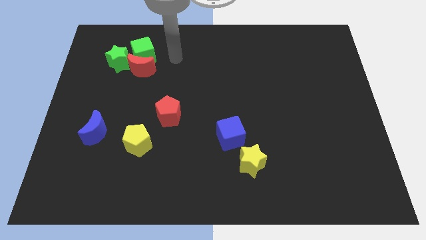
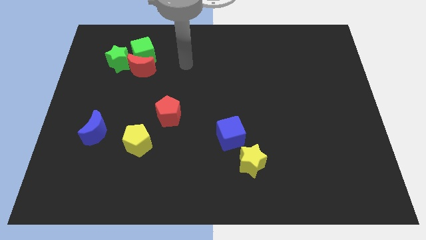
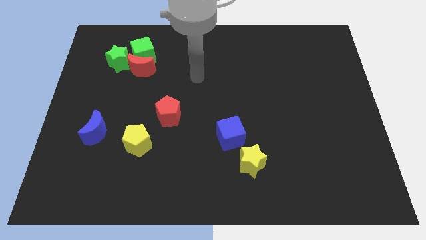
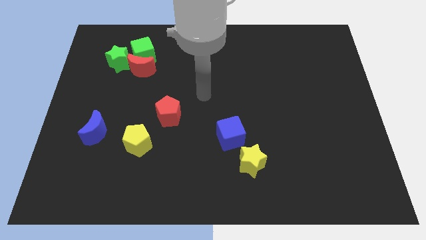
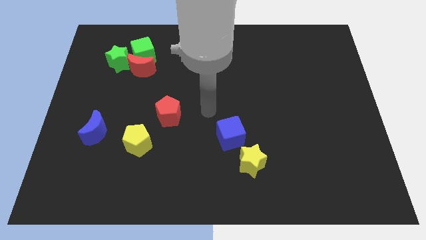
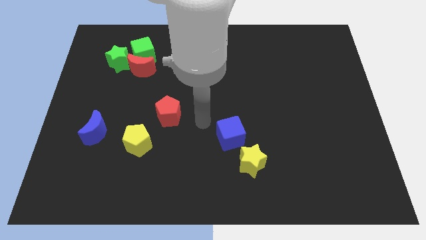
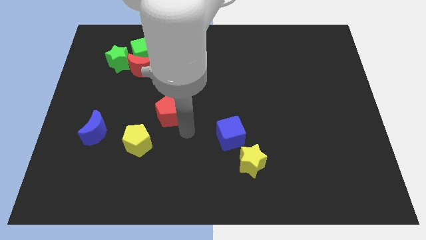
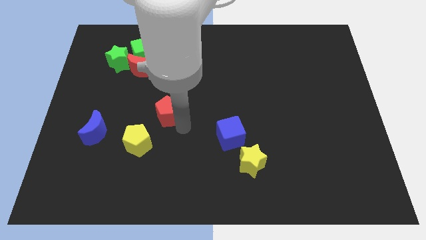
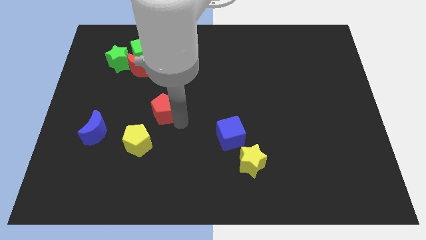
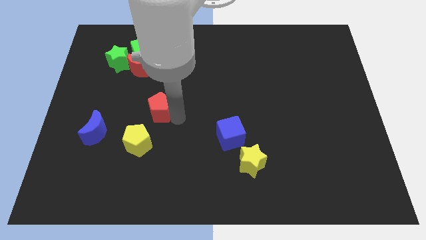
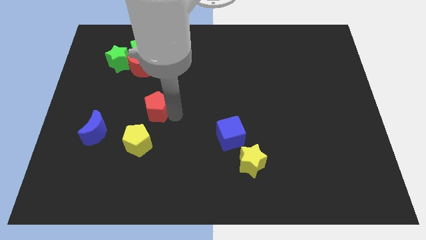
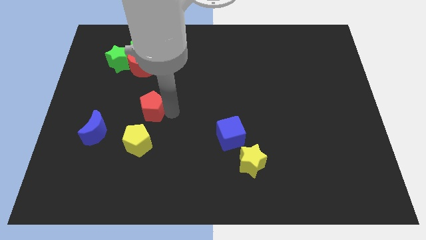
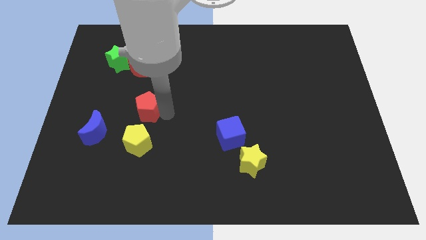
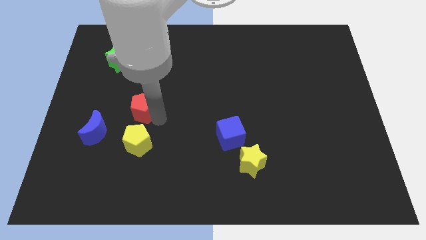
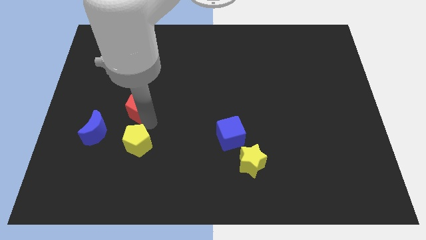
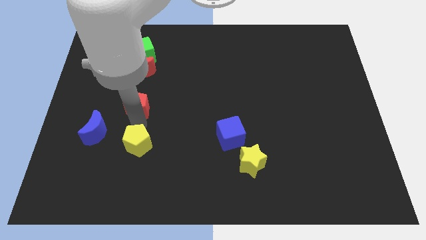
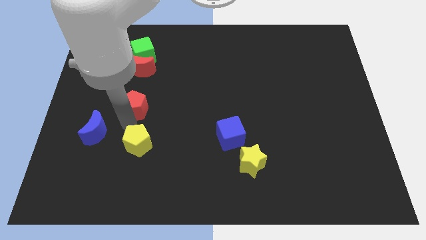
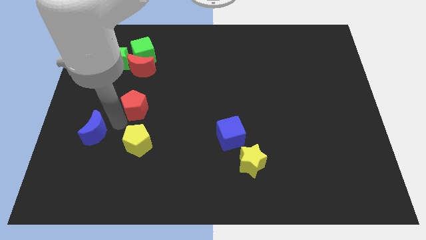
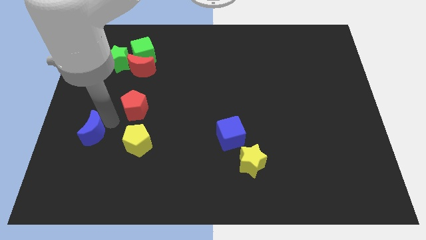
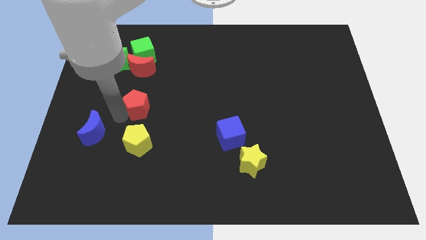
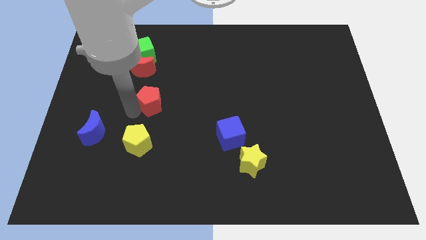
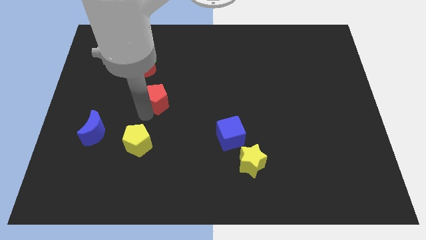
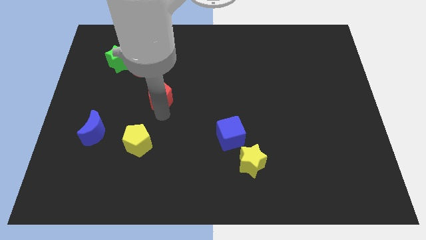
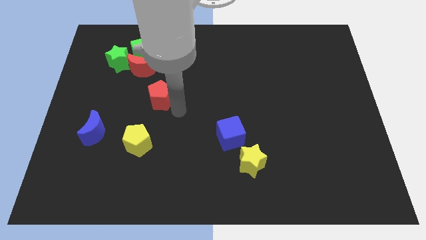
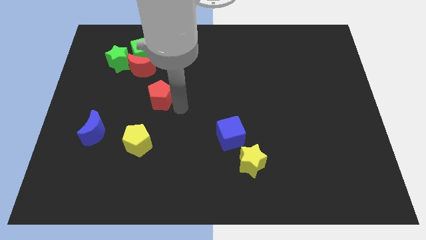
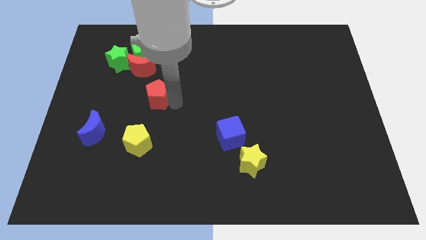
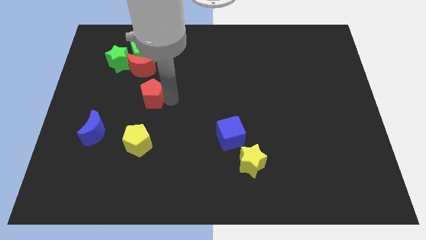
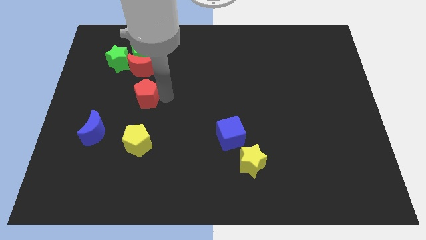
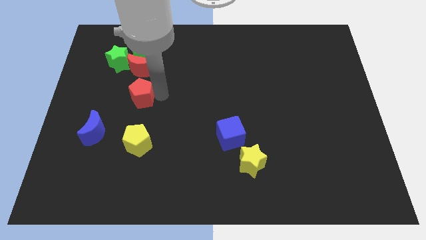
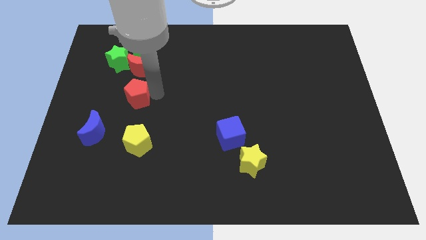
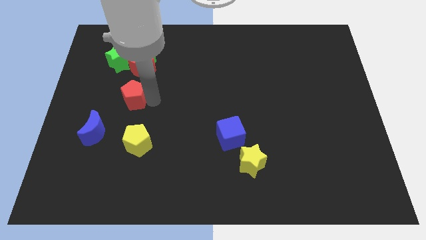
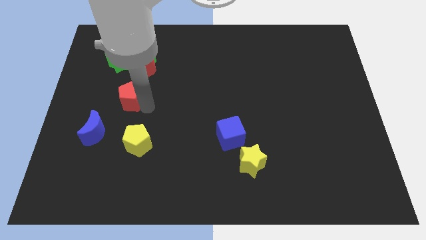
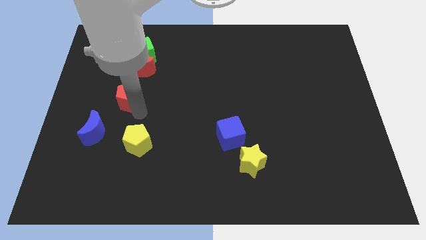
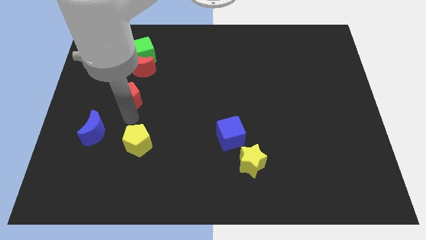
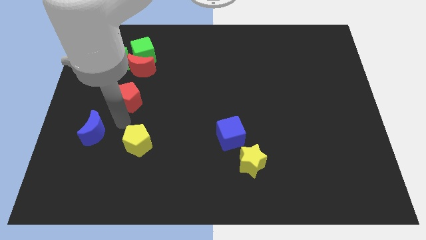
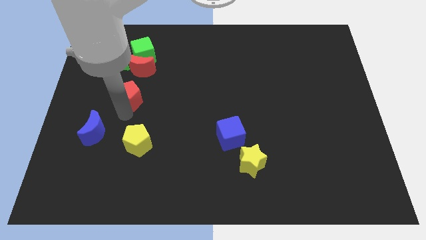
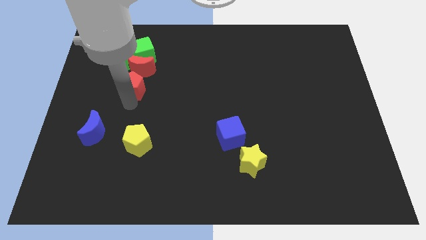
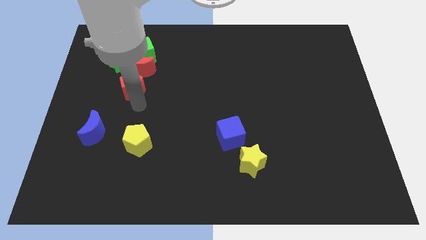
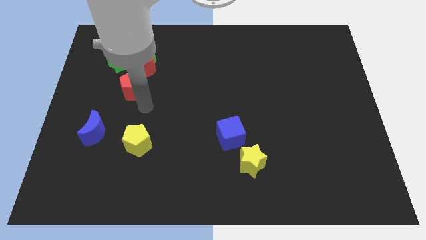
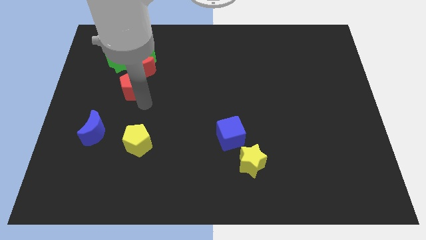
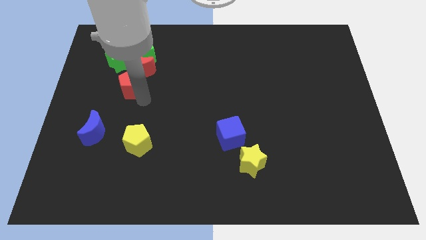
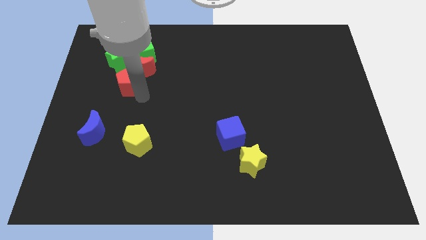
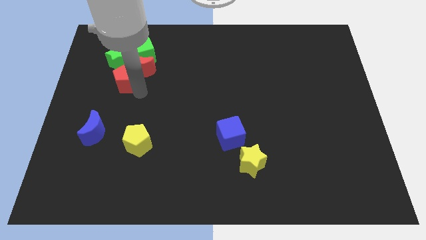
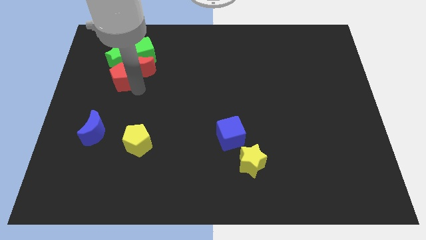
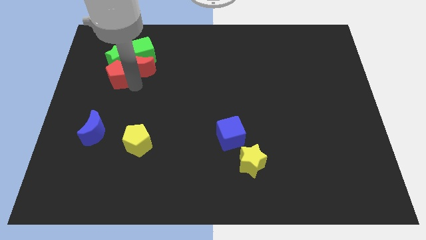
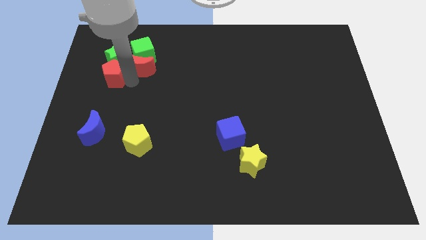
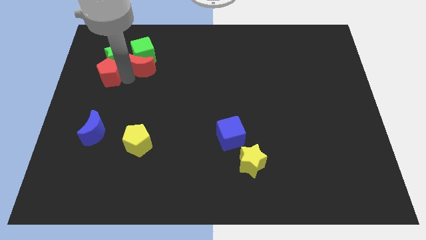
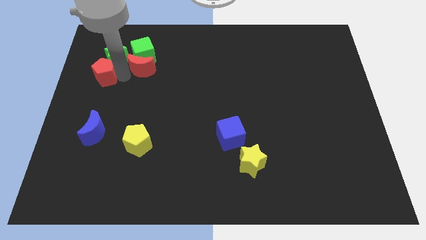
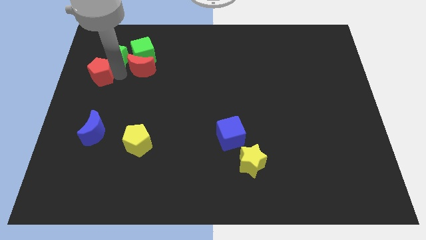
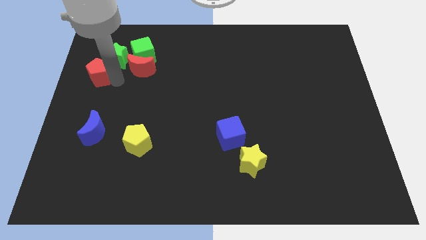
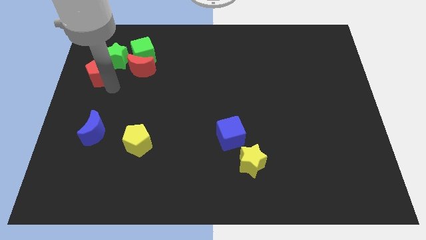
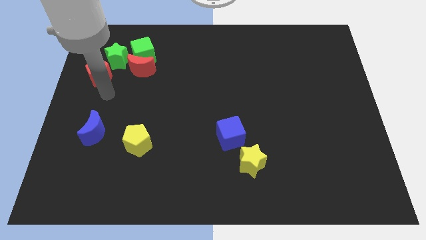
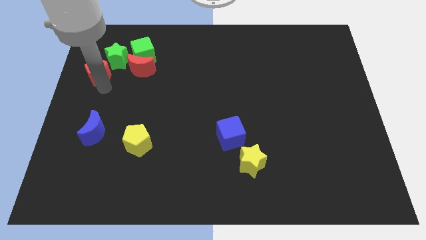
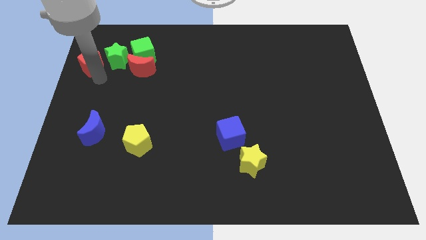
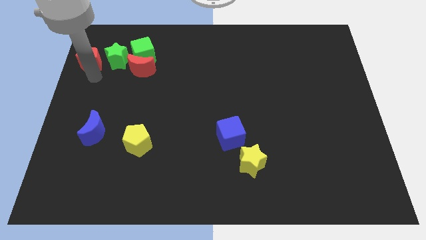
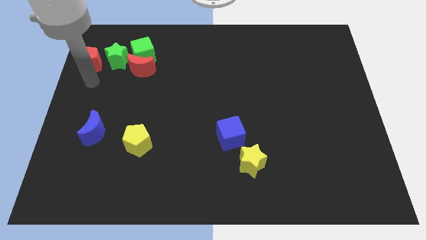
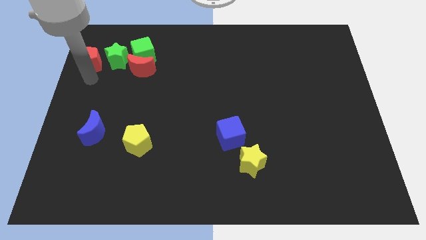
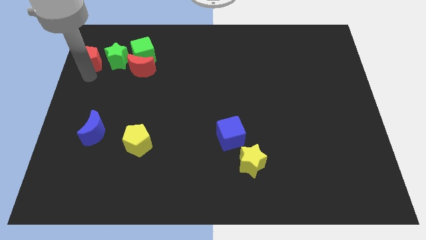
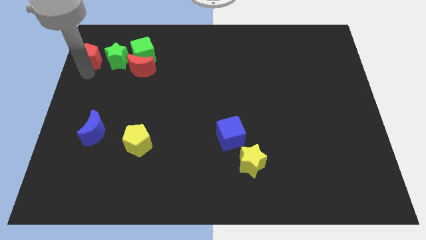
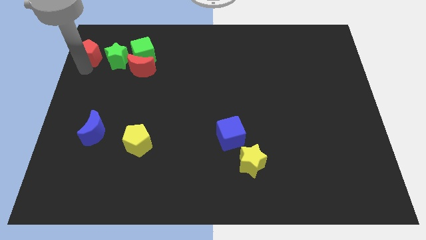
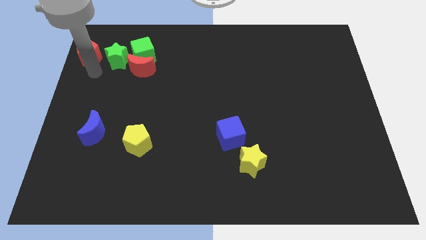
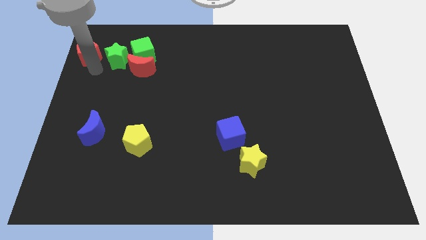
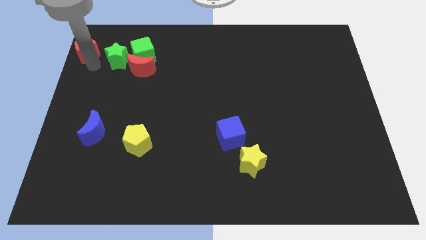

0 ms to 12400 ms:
slide the red pentagon to the top left corner
